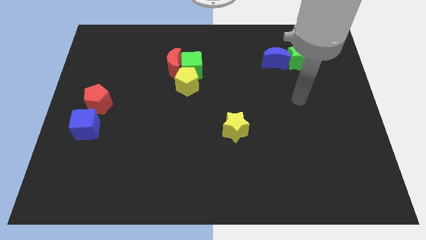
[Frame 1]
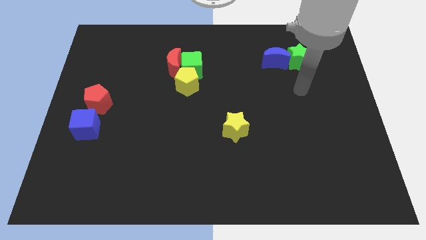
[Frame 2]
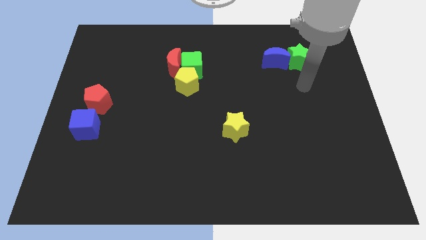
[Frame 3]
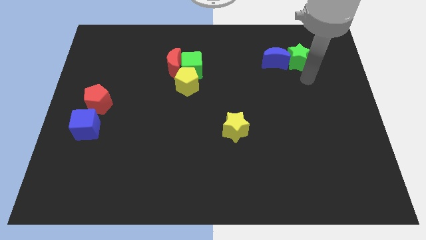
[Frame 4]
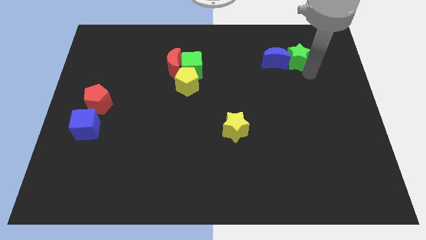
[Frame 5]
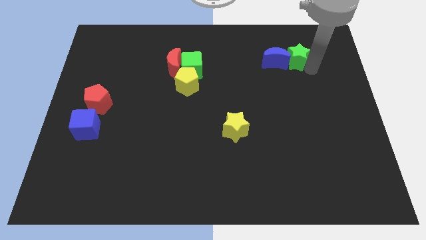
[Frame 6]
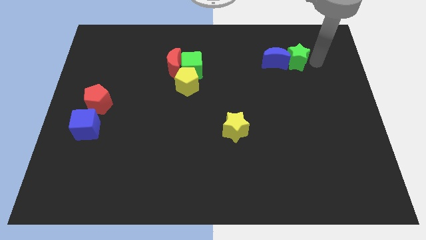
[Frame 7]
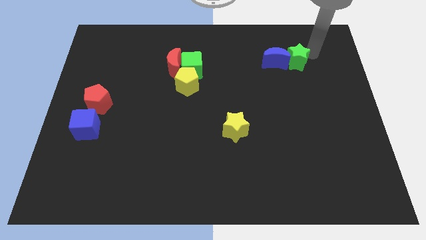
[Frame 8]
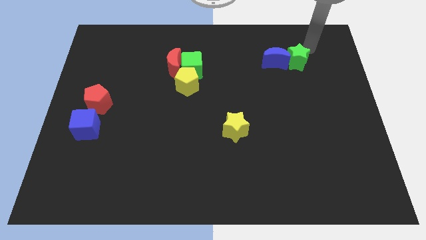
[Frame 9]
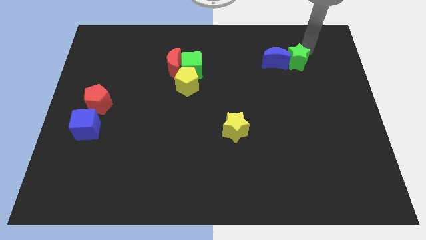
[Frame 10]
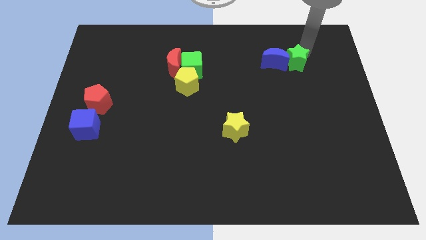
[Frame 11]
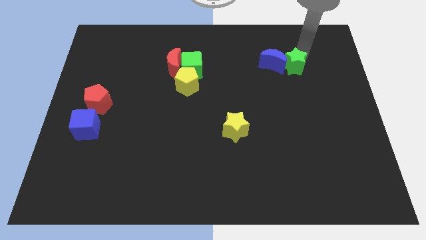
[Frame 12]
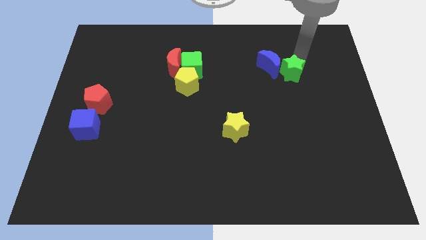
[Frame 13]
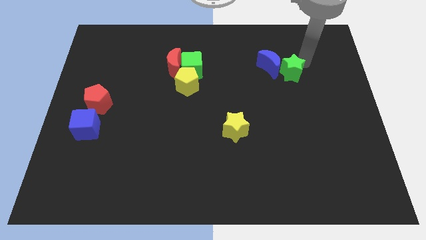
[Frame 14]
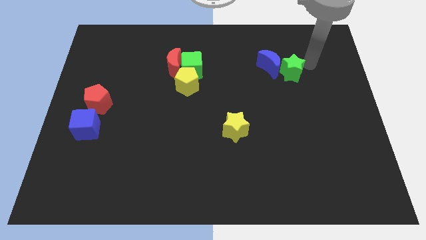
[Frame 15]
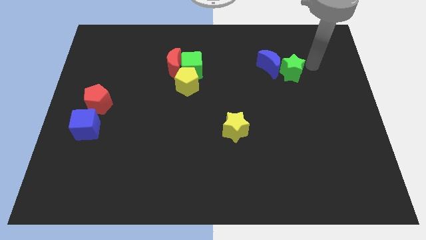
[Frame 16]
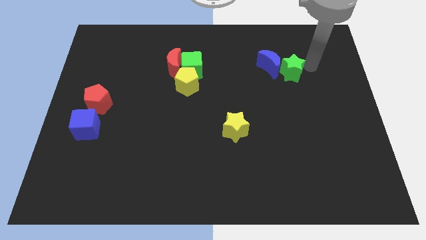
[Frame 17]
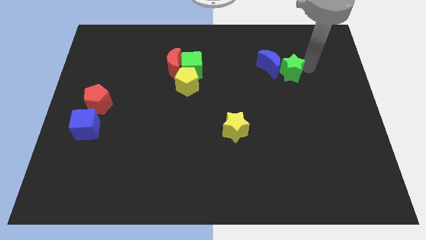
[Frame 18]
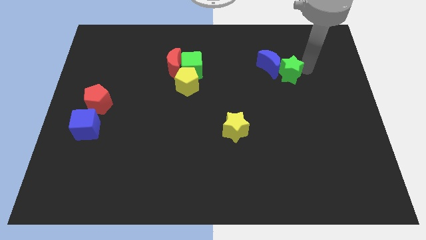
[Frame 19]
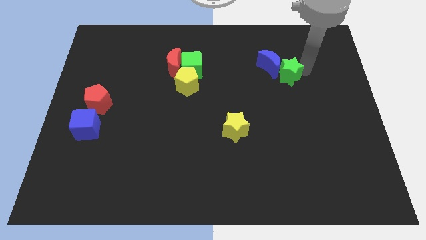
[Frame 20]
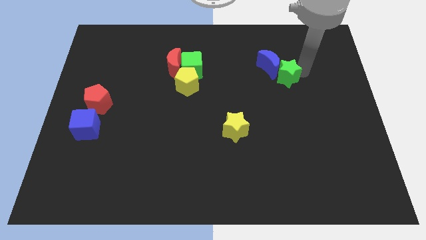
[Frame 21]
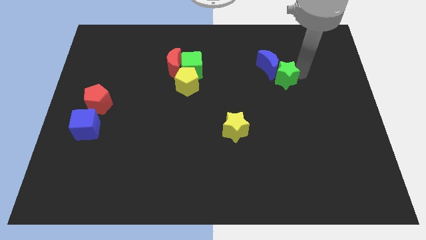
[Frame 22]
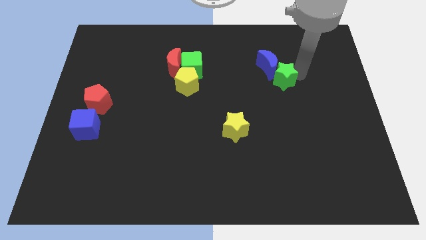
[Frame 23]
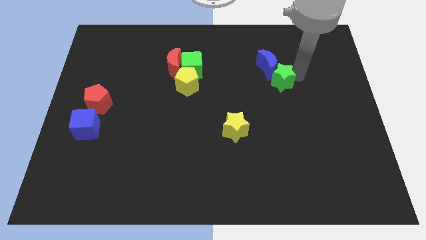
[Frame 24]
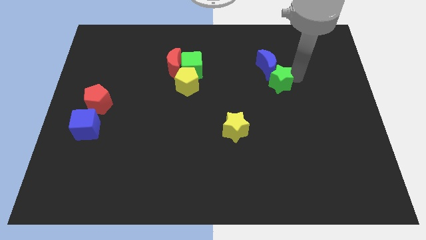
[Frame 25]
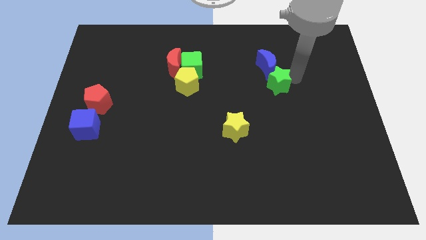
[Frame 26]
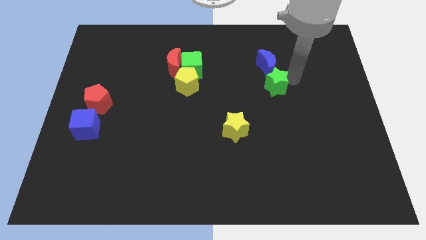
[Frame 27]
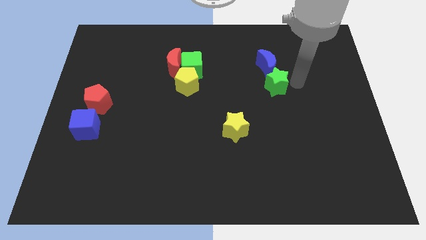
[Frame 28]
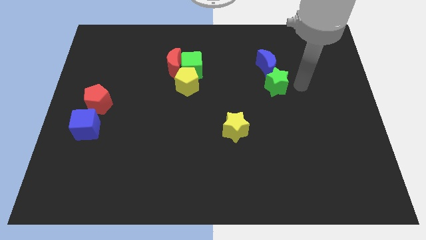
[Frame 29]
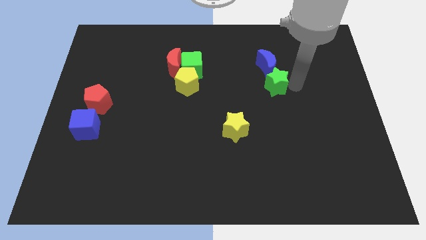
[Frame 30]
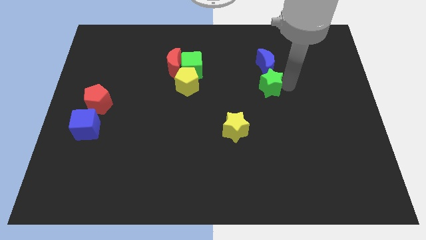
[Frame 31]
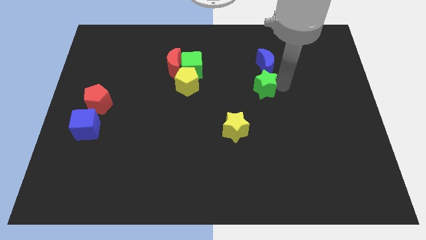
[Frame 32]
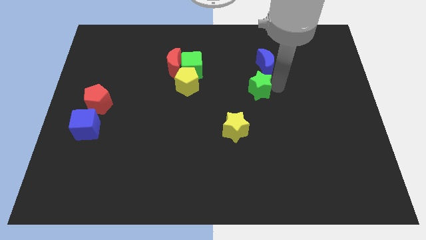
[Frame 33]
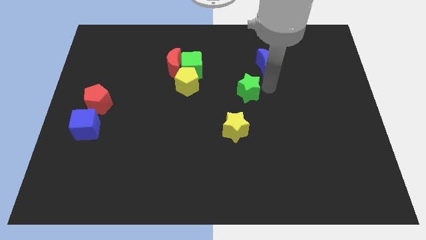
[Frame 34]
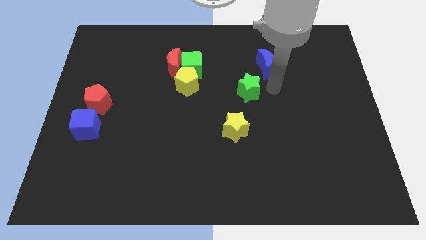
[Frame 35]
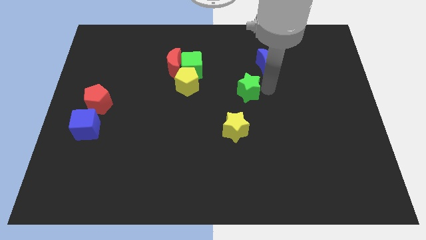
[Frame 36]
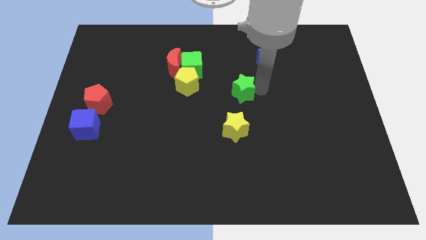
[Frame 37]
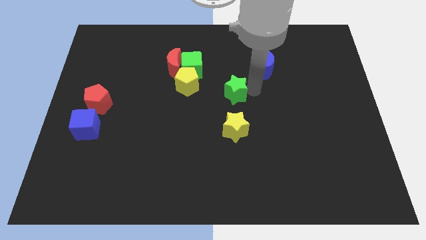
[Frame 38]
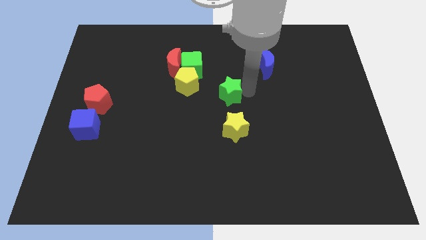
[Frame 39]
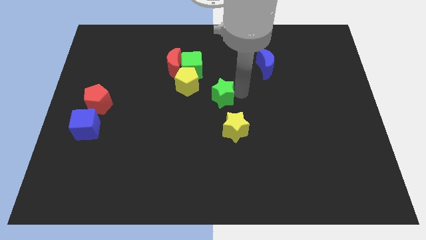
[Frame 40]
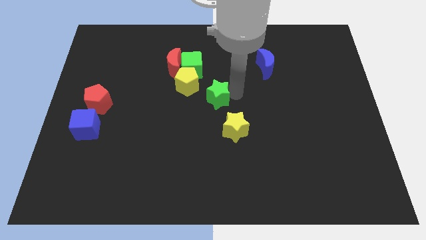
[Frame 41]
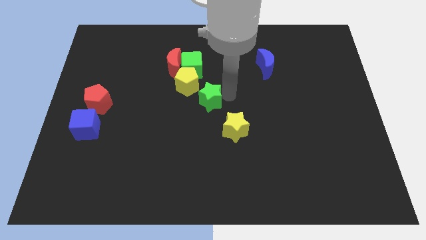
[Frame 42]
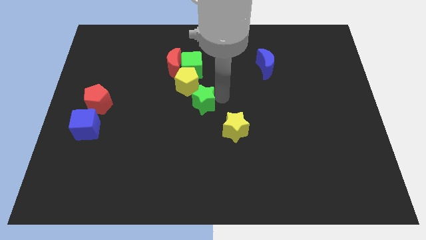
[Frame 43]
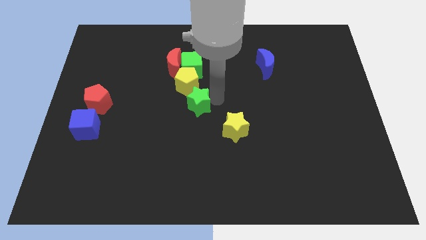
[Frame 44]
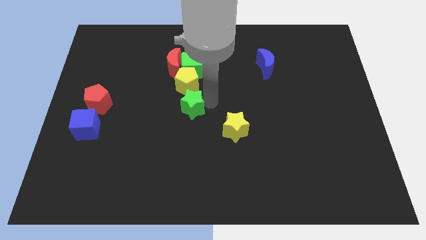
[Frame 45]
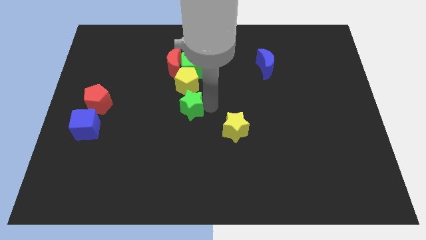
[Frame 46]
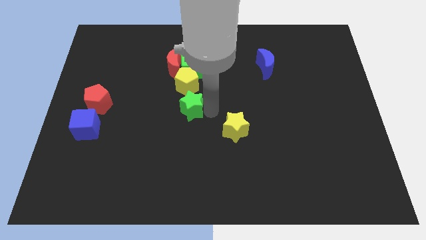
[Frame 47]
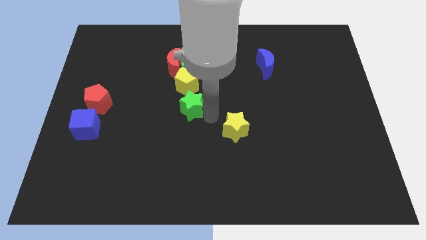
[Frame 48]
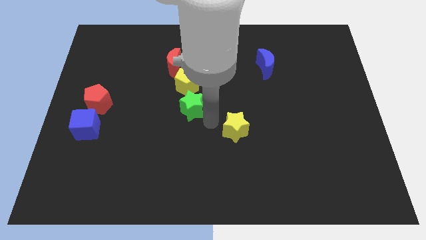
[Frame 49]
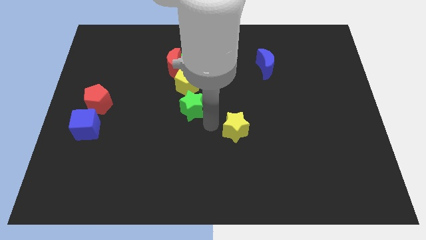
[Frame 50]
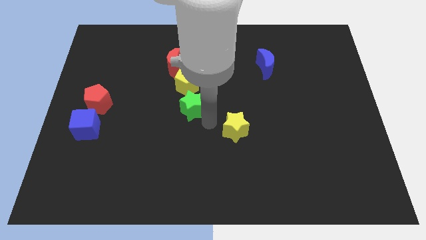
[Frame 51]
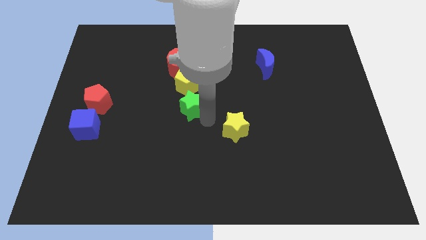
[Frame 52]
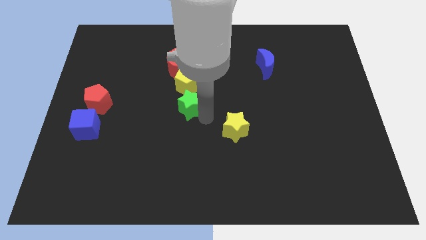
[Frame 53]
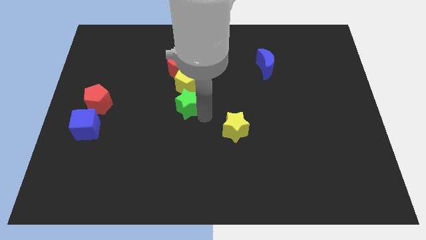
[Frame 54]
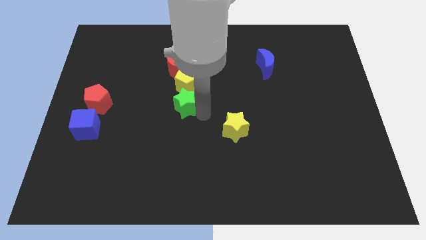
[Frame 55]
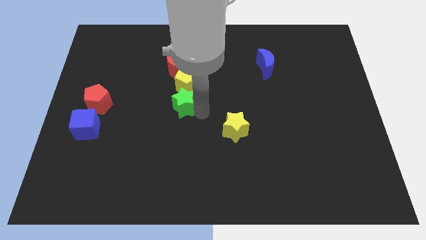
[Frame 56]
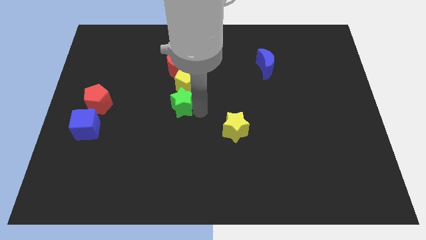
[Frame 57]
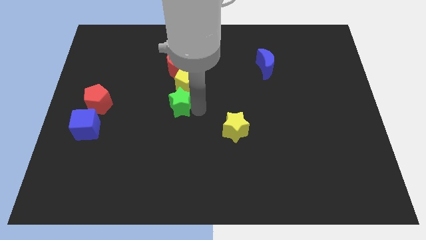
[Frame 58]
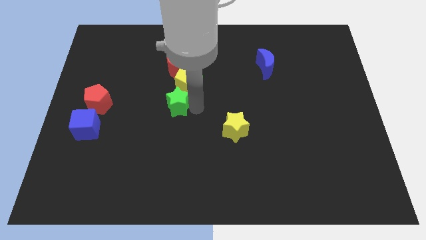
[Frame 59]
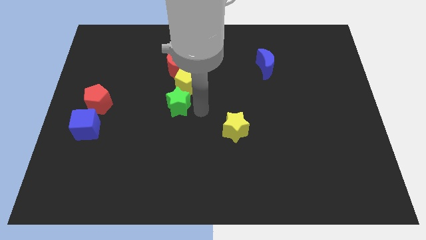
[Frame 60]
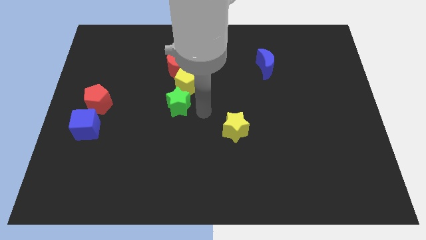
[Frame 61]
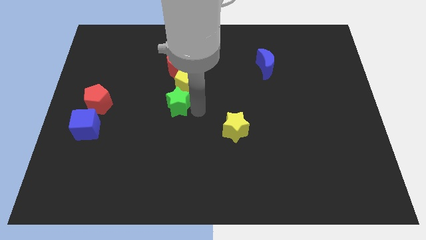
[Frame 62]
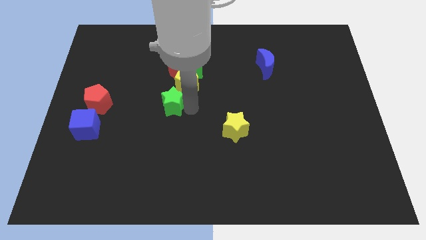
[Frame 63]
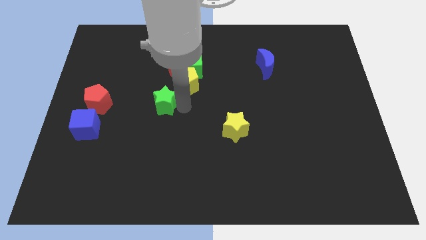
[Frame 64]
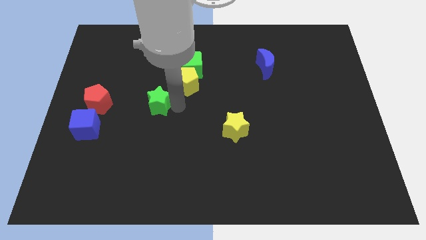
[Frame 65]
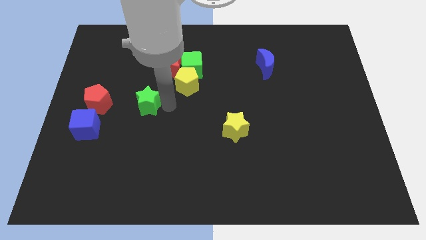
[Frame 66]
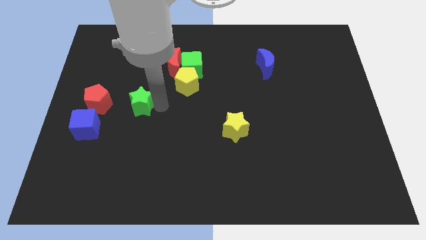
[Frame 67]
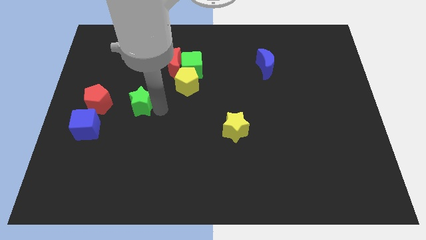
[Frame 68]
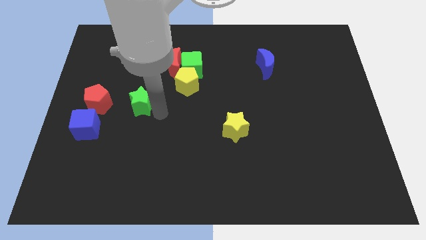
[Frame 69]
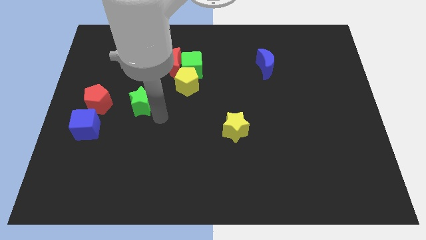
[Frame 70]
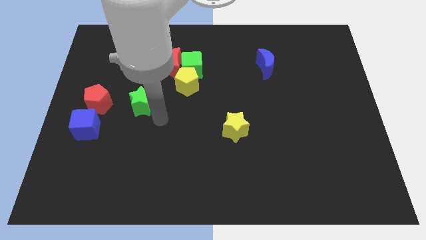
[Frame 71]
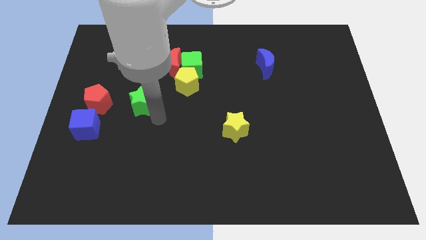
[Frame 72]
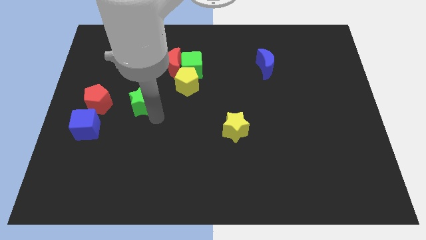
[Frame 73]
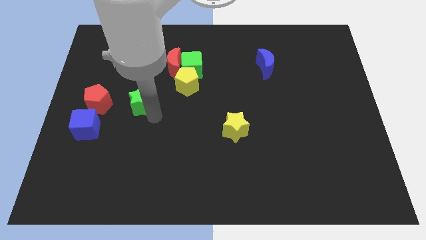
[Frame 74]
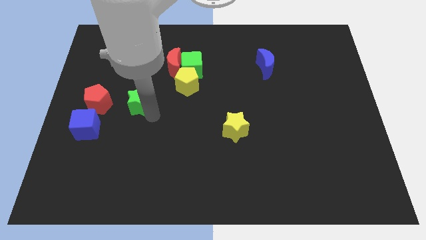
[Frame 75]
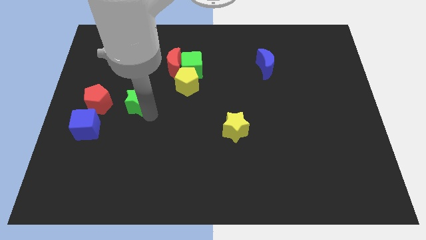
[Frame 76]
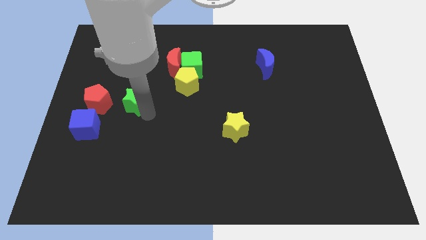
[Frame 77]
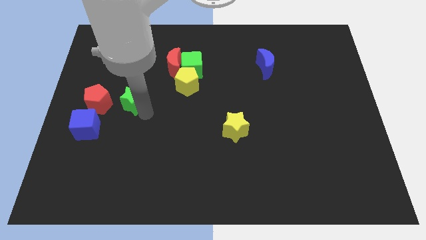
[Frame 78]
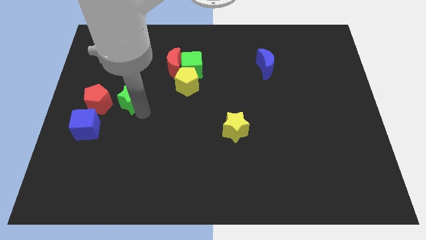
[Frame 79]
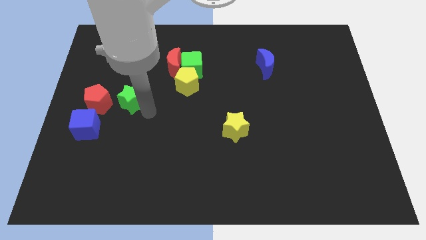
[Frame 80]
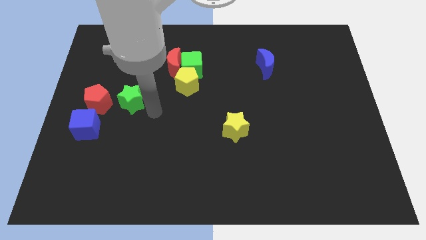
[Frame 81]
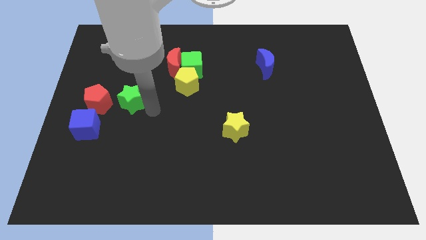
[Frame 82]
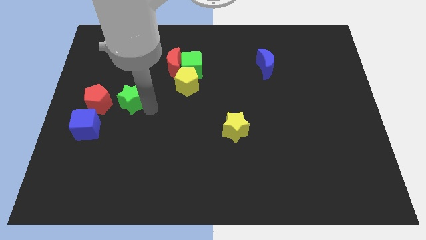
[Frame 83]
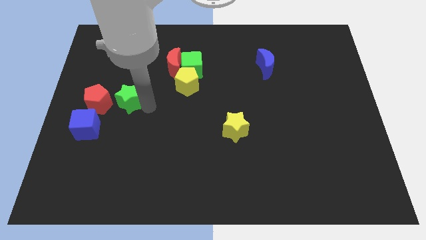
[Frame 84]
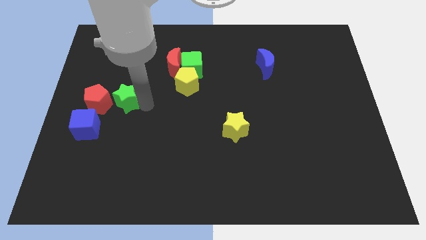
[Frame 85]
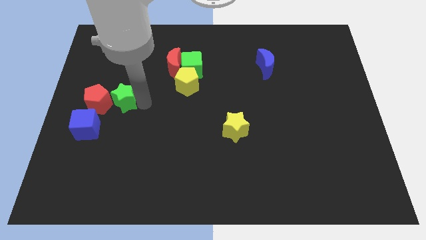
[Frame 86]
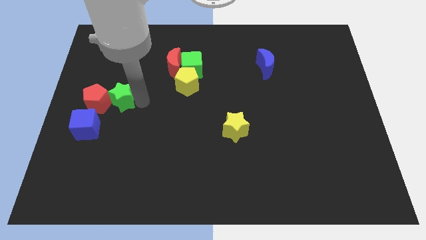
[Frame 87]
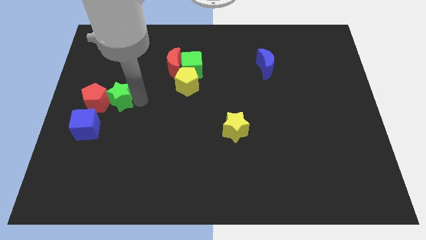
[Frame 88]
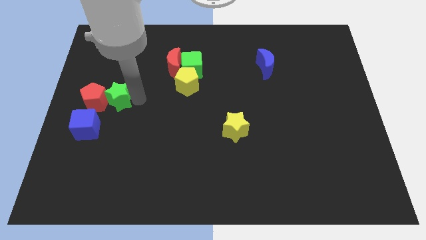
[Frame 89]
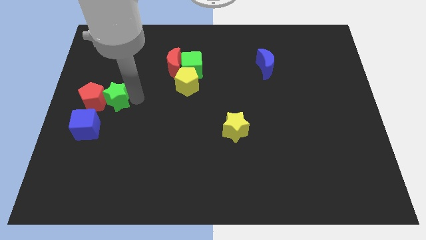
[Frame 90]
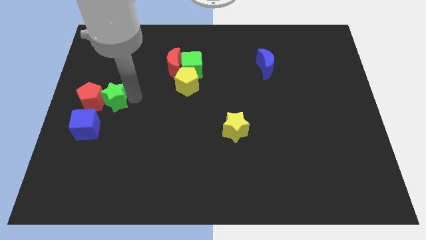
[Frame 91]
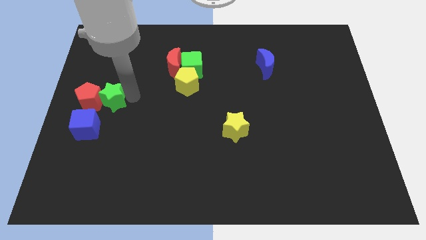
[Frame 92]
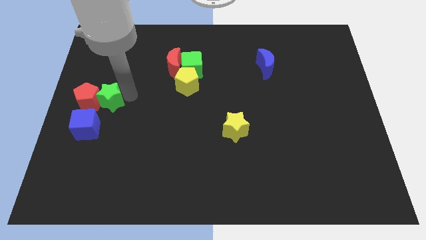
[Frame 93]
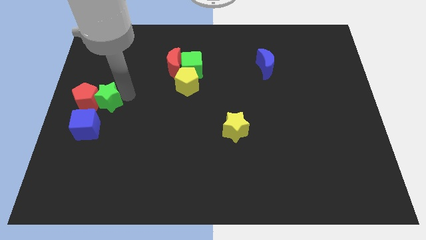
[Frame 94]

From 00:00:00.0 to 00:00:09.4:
push the green star to the left side
